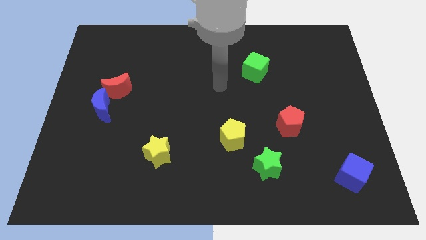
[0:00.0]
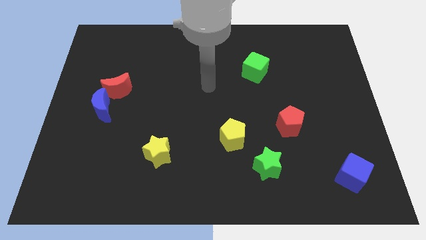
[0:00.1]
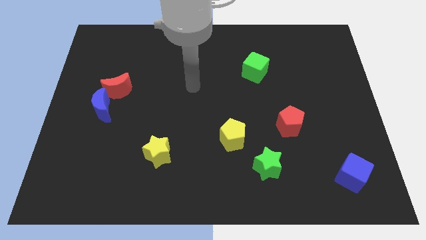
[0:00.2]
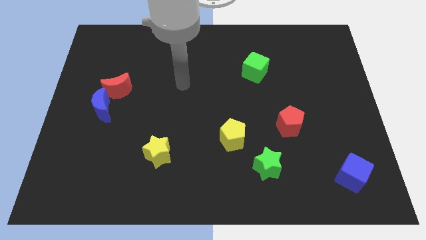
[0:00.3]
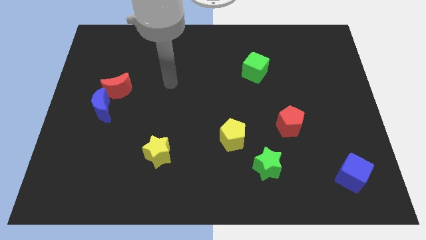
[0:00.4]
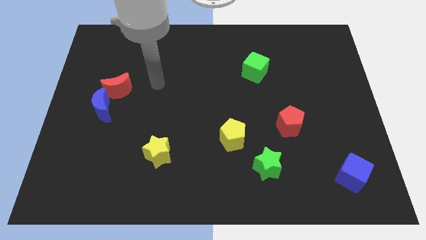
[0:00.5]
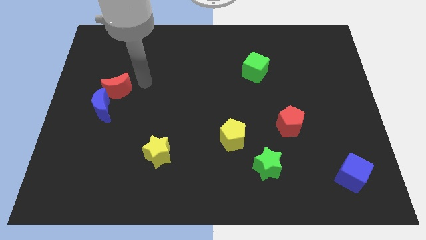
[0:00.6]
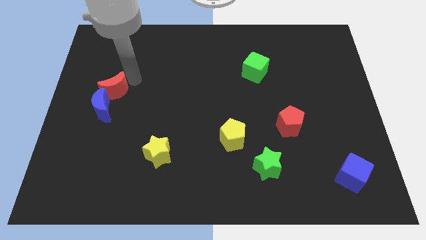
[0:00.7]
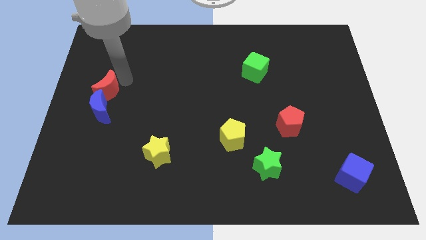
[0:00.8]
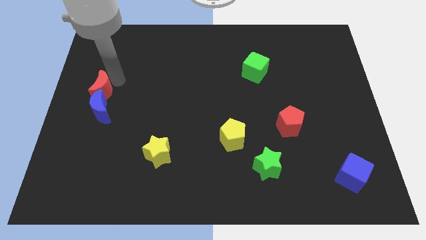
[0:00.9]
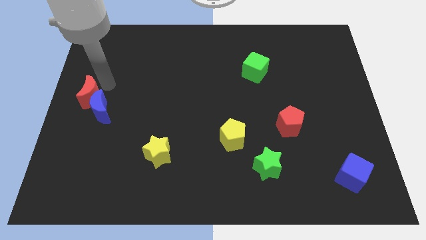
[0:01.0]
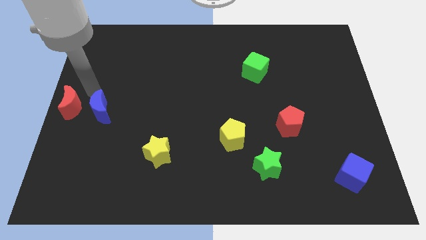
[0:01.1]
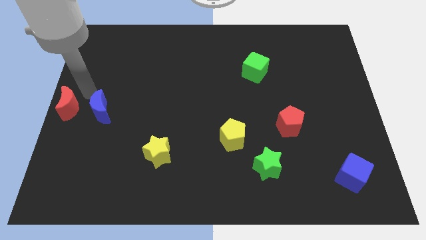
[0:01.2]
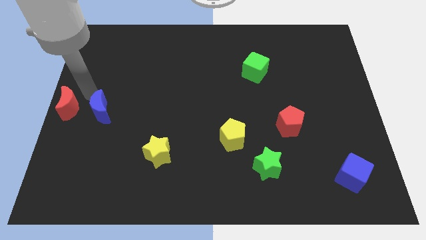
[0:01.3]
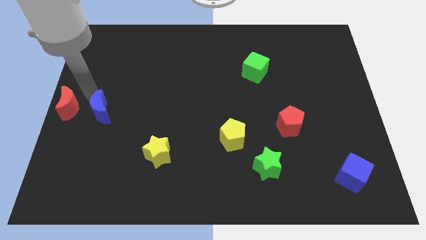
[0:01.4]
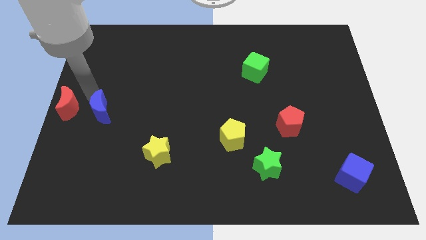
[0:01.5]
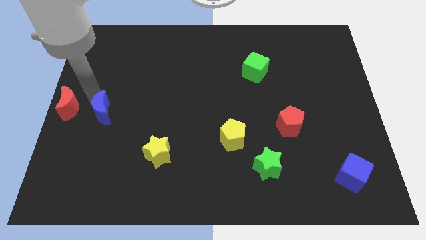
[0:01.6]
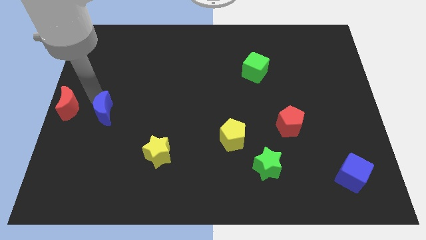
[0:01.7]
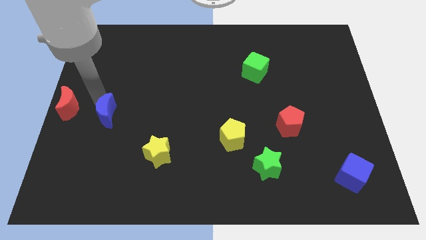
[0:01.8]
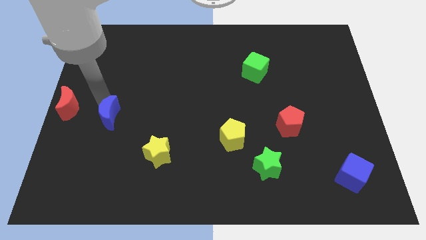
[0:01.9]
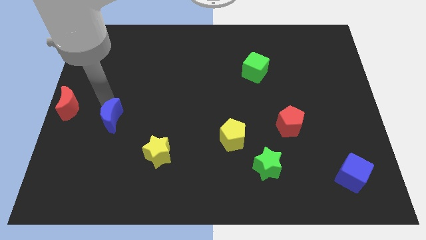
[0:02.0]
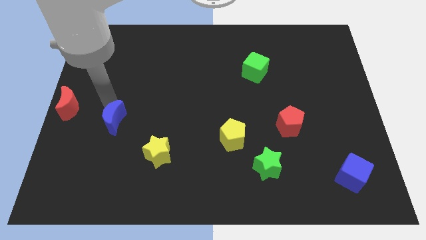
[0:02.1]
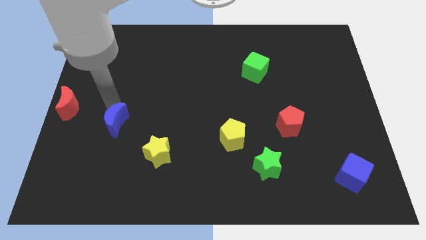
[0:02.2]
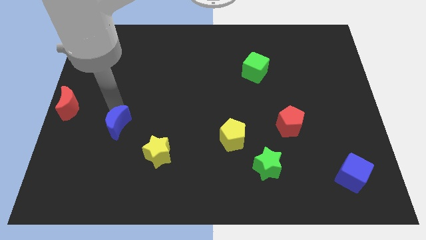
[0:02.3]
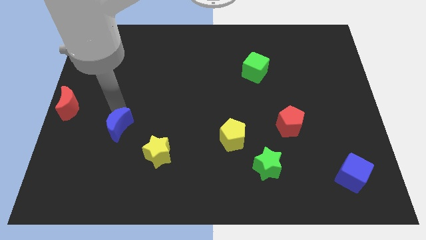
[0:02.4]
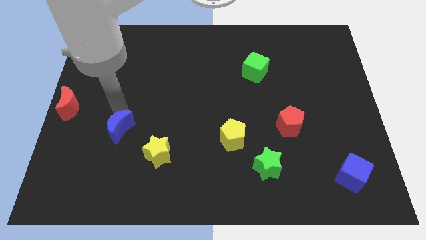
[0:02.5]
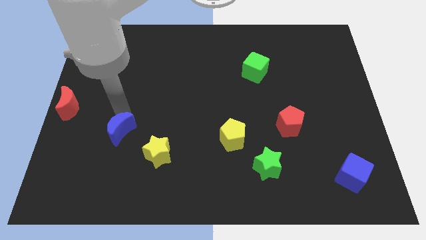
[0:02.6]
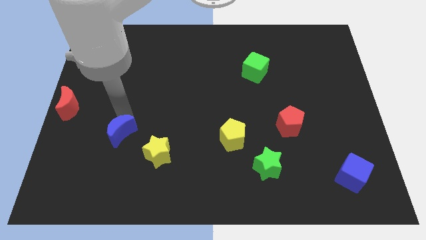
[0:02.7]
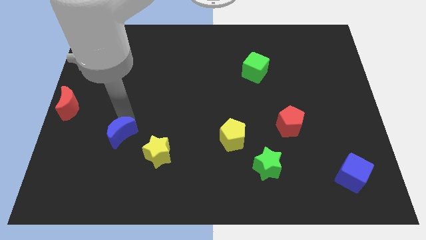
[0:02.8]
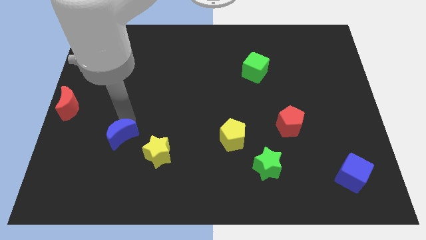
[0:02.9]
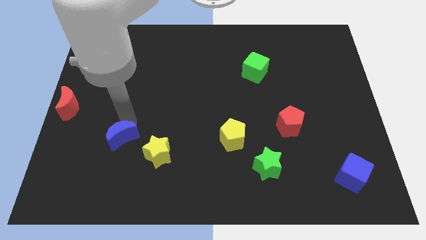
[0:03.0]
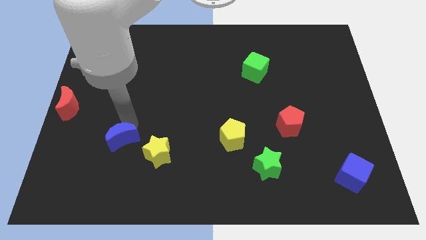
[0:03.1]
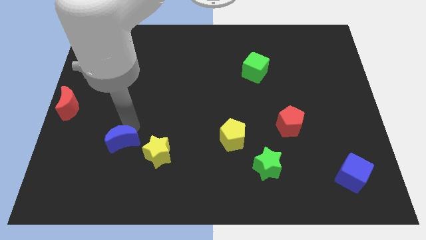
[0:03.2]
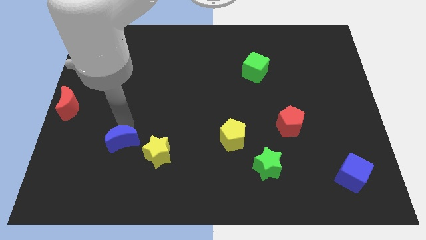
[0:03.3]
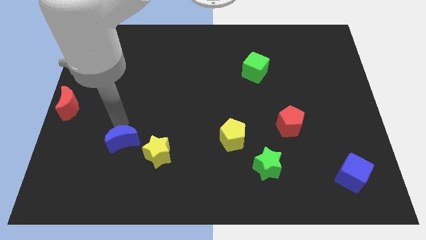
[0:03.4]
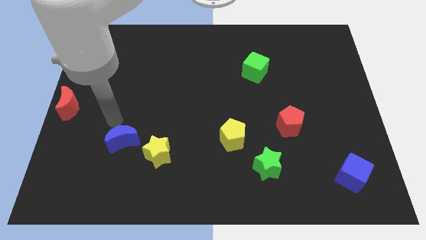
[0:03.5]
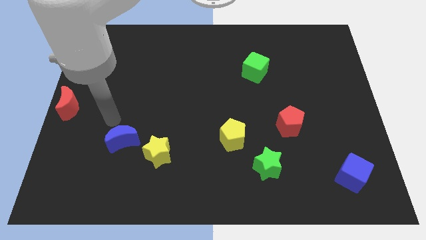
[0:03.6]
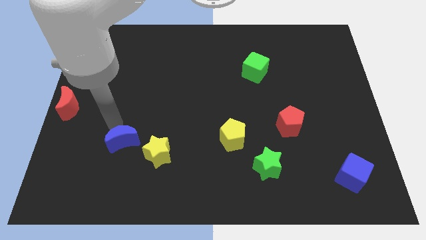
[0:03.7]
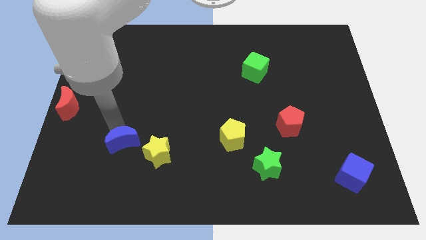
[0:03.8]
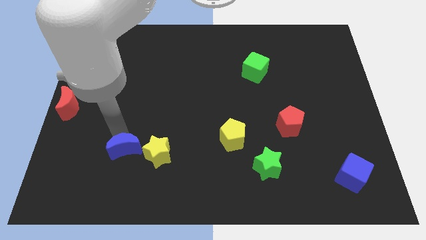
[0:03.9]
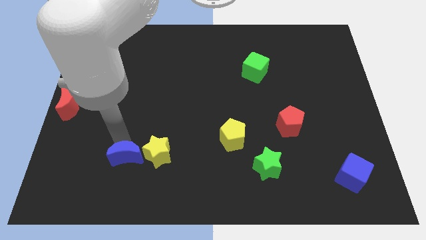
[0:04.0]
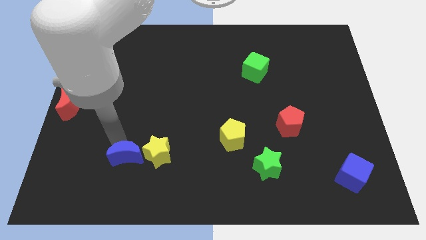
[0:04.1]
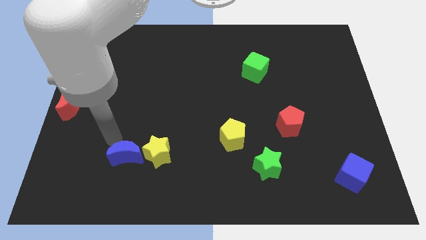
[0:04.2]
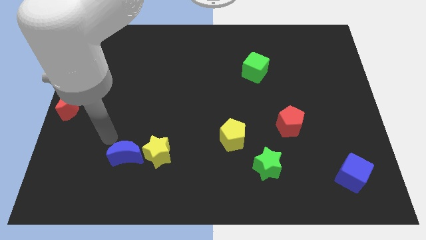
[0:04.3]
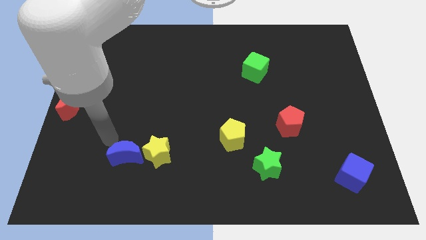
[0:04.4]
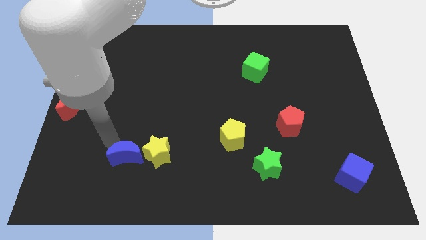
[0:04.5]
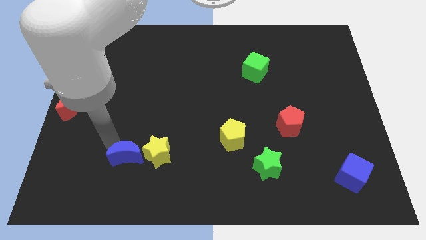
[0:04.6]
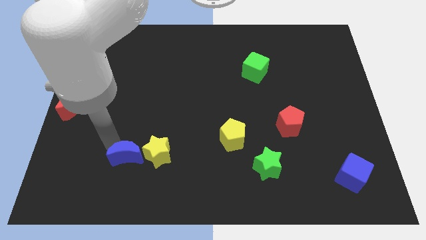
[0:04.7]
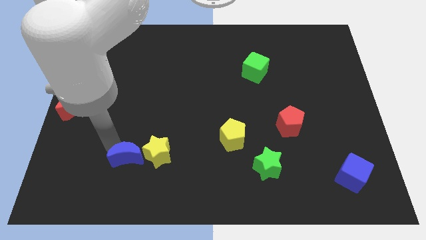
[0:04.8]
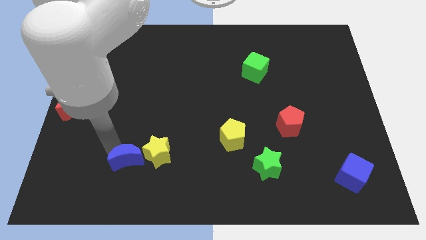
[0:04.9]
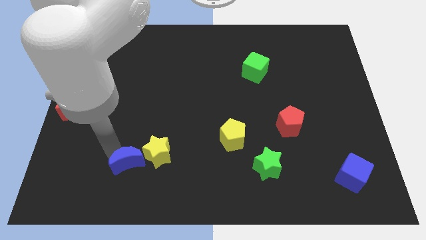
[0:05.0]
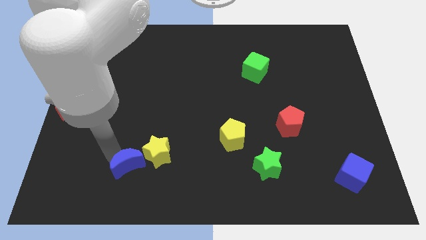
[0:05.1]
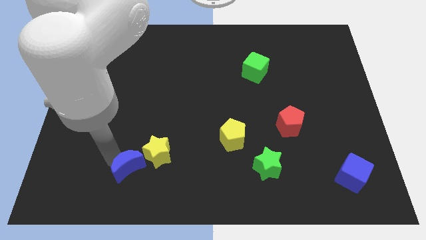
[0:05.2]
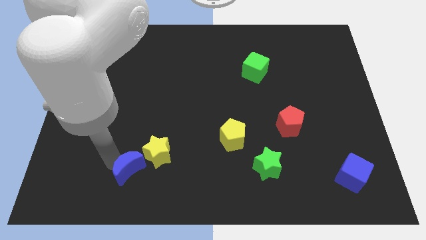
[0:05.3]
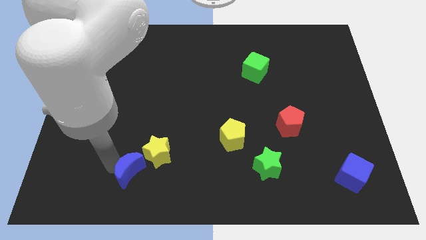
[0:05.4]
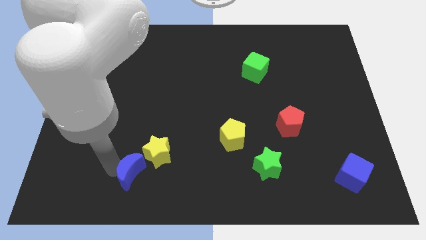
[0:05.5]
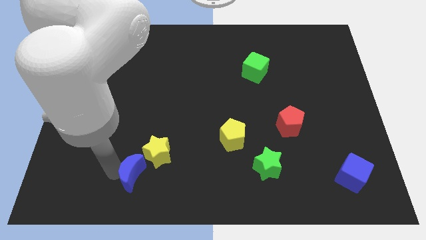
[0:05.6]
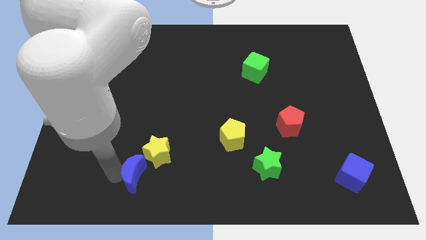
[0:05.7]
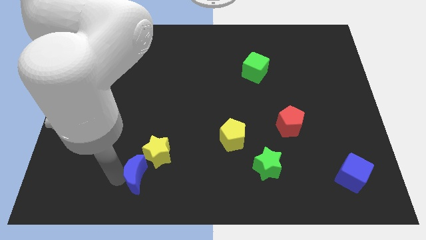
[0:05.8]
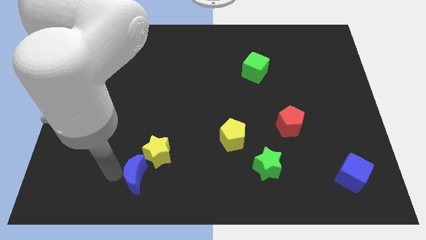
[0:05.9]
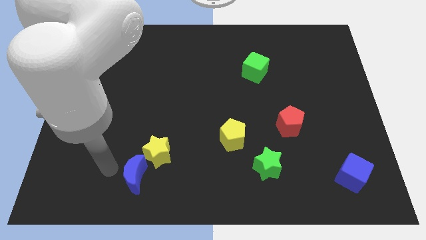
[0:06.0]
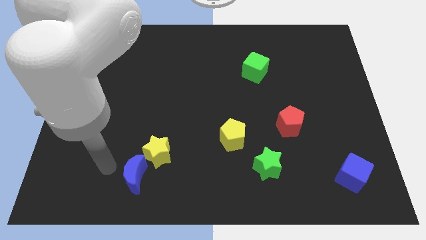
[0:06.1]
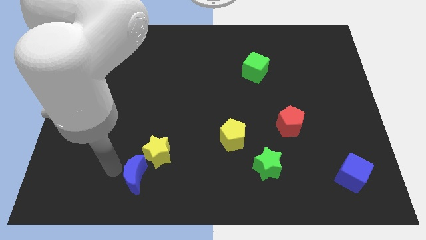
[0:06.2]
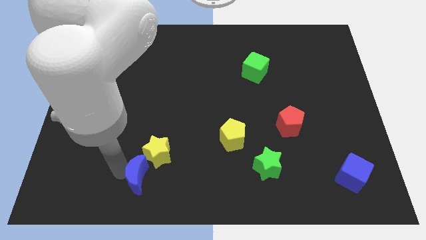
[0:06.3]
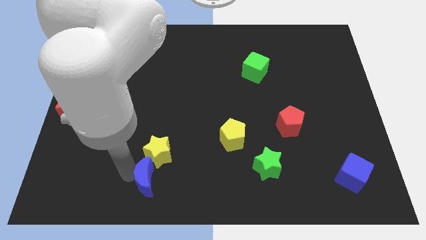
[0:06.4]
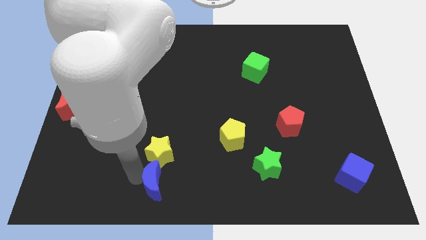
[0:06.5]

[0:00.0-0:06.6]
move the blue moon to the bottom side
